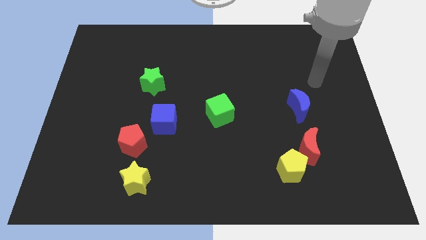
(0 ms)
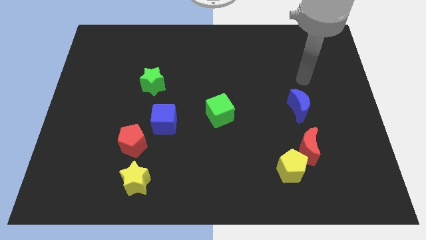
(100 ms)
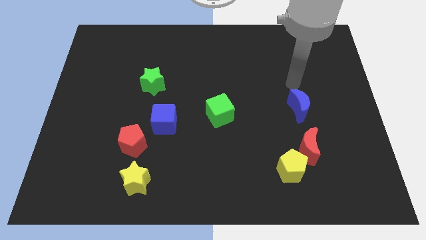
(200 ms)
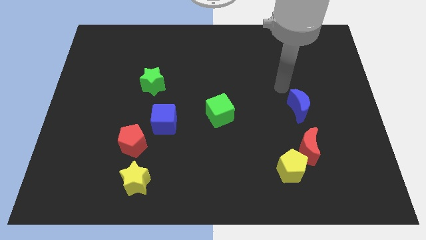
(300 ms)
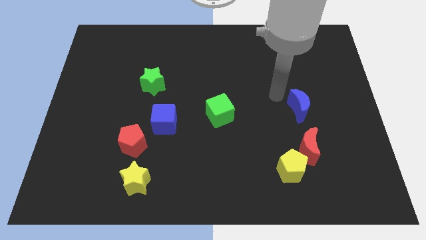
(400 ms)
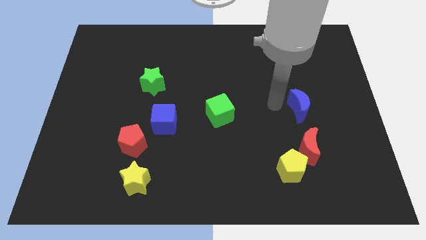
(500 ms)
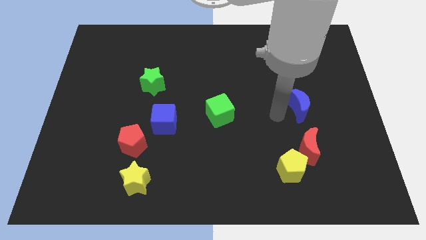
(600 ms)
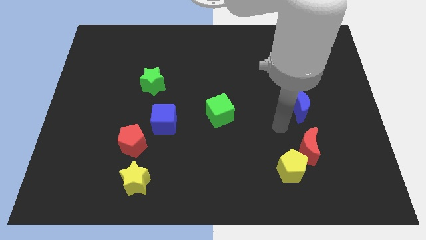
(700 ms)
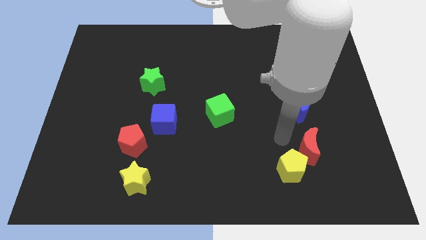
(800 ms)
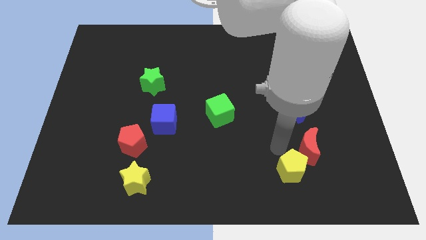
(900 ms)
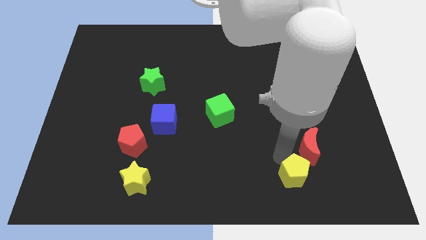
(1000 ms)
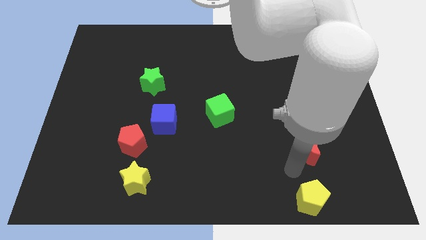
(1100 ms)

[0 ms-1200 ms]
move the red moon away from the yellow pentagon

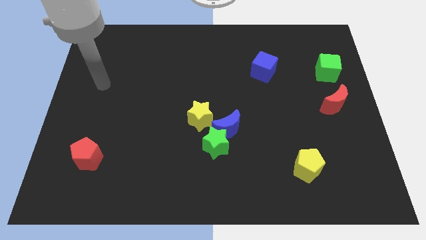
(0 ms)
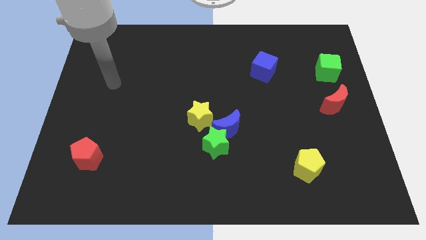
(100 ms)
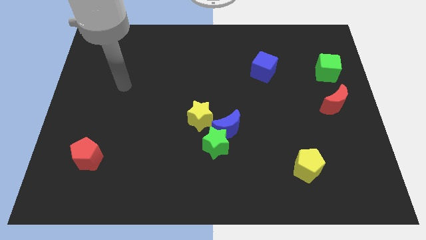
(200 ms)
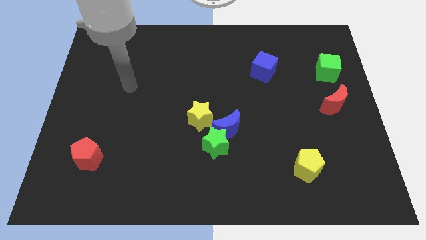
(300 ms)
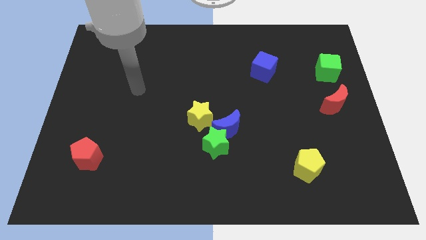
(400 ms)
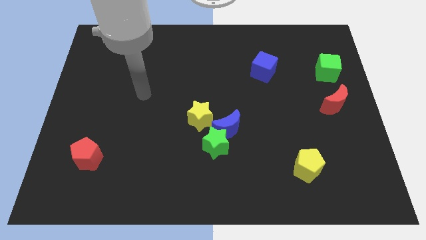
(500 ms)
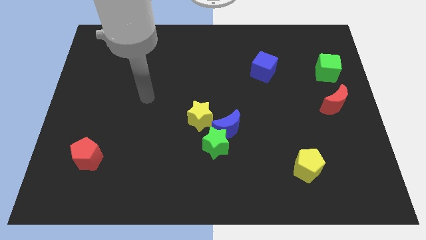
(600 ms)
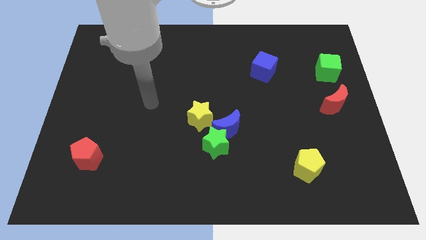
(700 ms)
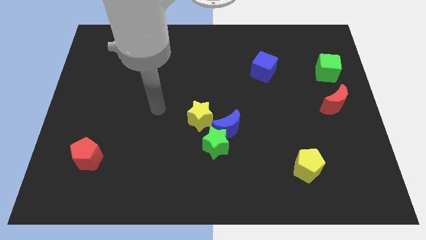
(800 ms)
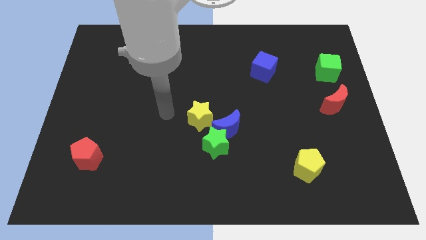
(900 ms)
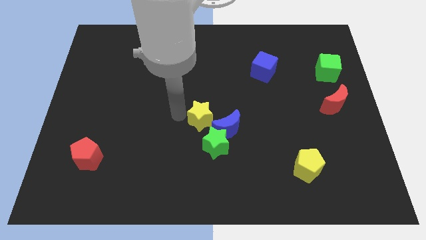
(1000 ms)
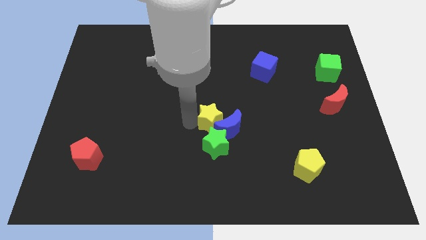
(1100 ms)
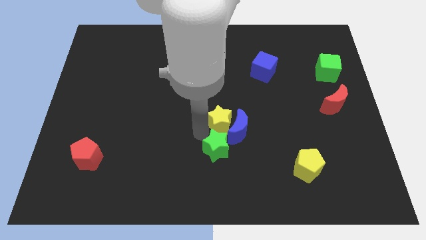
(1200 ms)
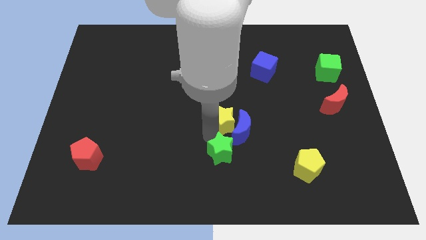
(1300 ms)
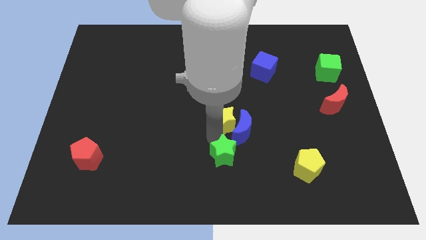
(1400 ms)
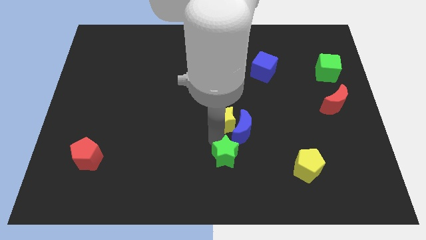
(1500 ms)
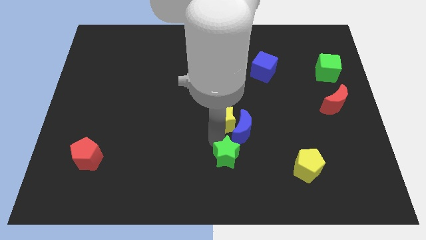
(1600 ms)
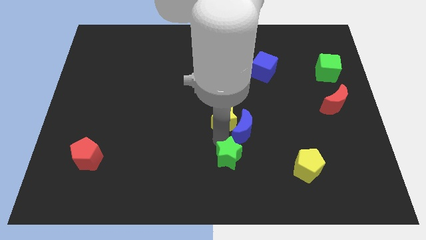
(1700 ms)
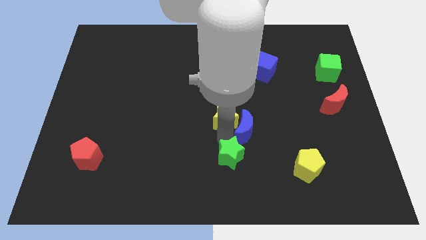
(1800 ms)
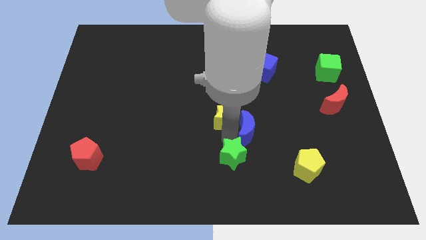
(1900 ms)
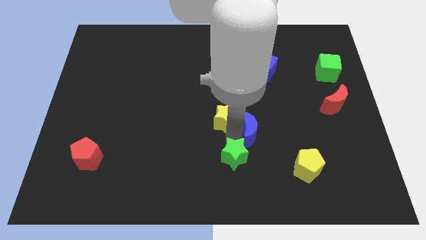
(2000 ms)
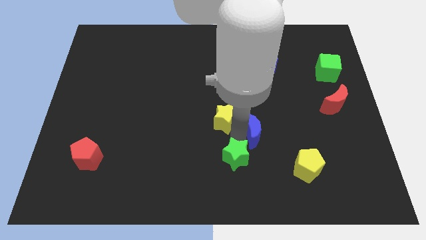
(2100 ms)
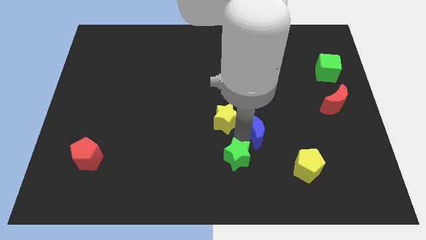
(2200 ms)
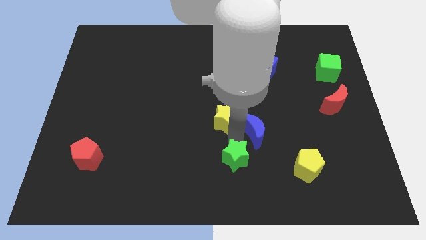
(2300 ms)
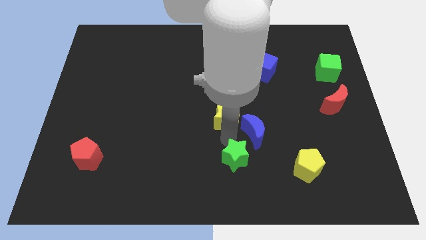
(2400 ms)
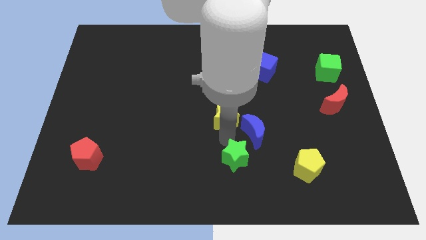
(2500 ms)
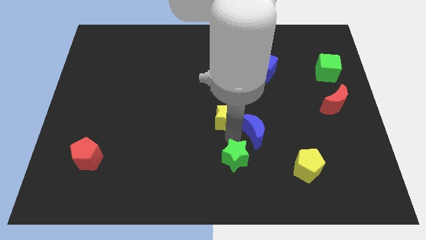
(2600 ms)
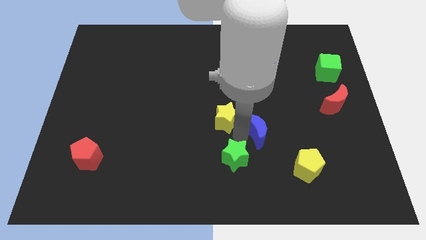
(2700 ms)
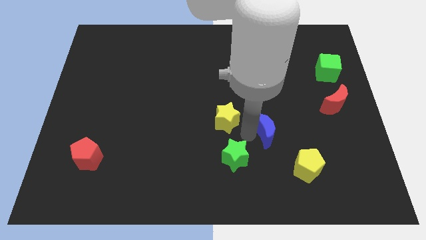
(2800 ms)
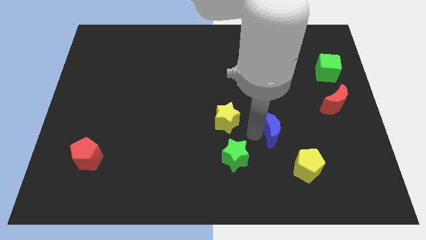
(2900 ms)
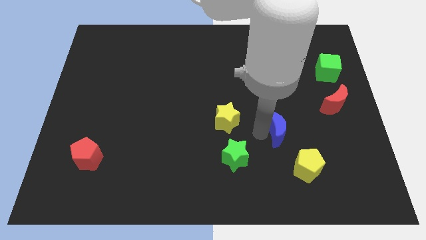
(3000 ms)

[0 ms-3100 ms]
separate the blue moon from the green star and yellow star

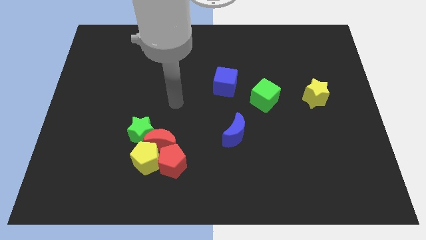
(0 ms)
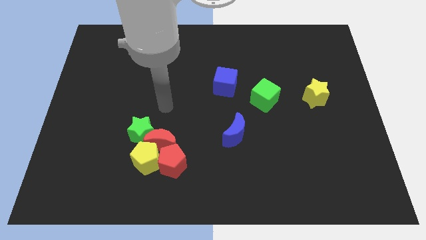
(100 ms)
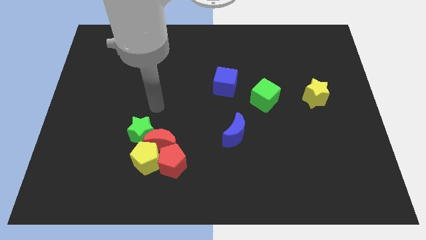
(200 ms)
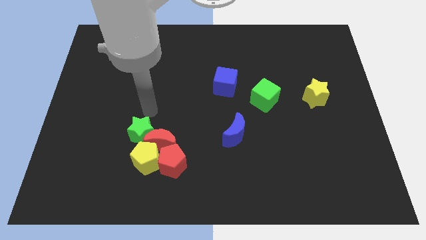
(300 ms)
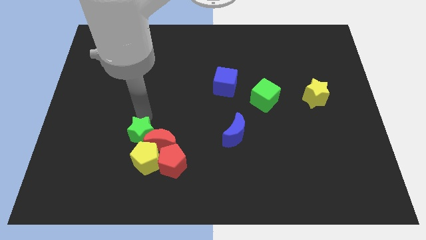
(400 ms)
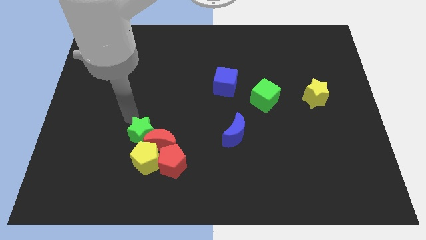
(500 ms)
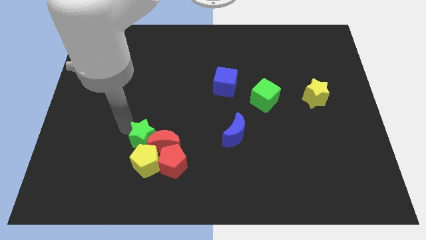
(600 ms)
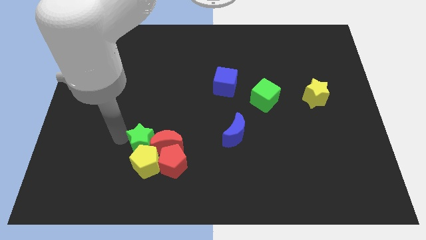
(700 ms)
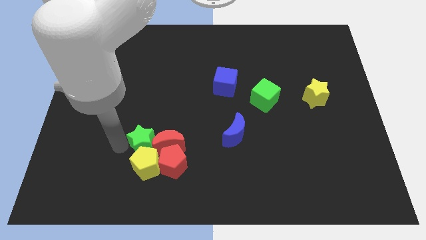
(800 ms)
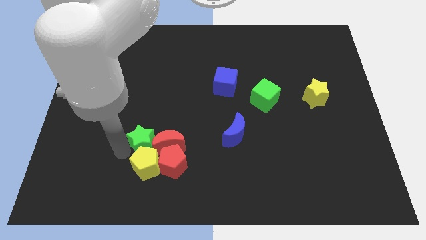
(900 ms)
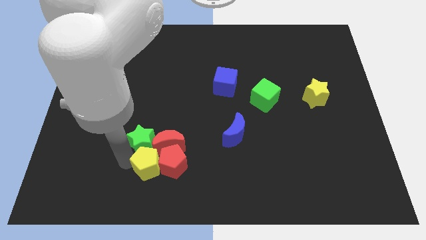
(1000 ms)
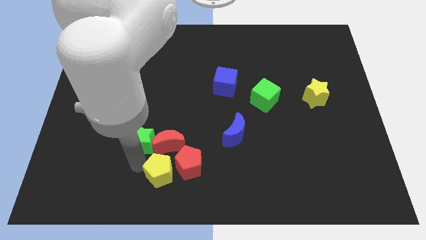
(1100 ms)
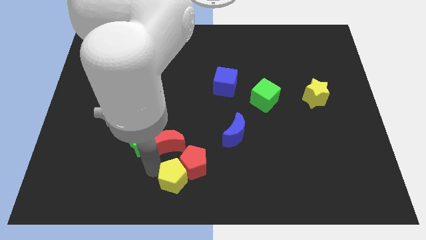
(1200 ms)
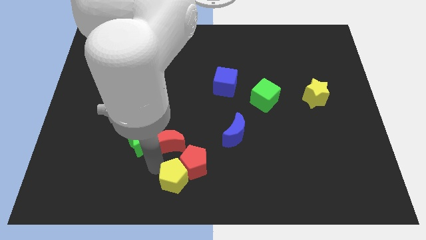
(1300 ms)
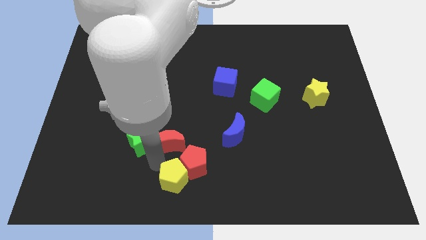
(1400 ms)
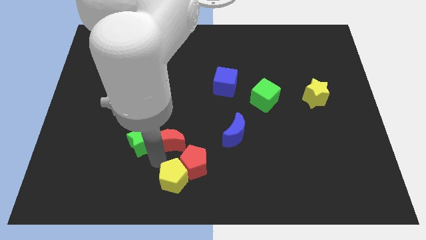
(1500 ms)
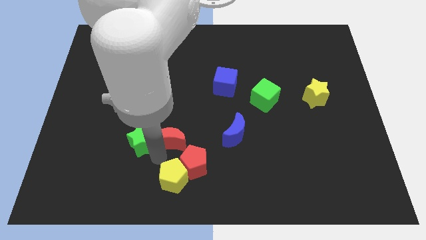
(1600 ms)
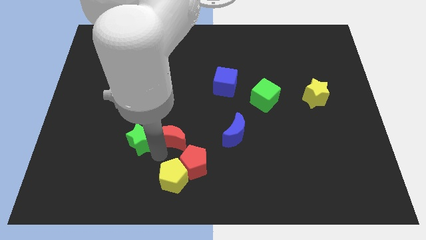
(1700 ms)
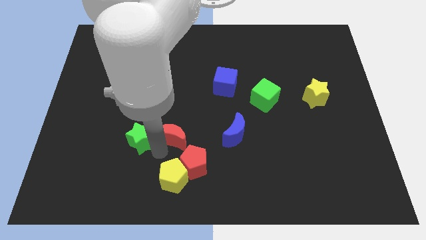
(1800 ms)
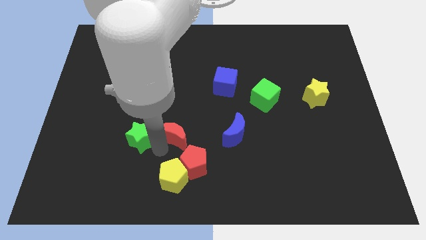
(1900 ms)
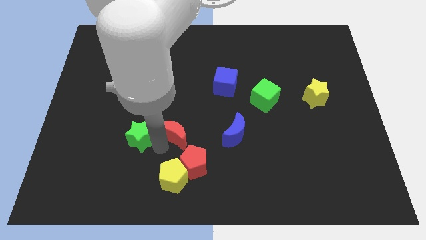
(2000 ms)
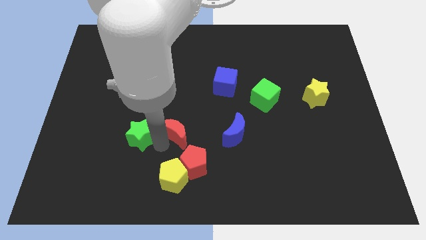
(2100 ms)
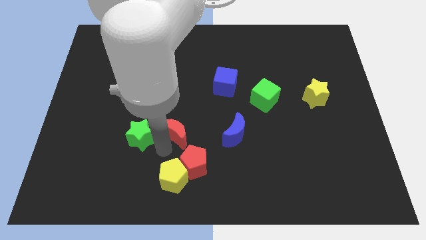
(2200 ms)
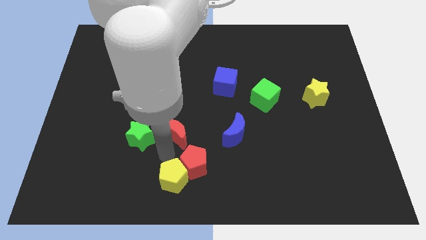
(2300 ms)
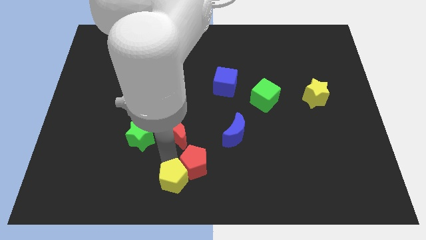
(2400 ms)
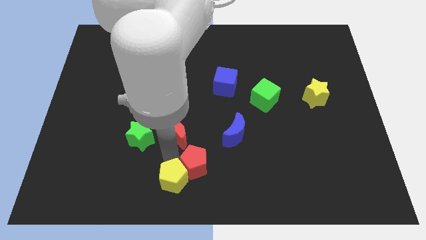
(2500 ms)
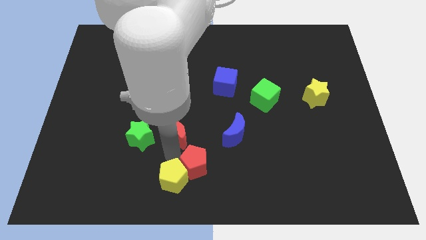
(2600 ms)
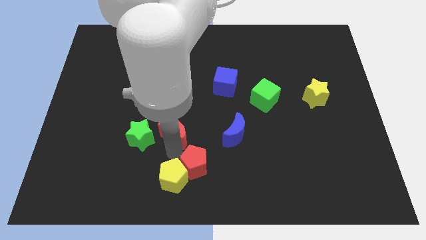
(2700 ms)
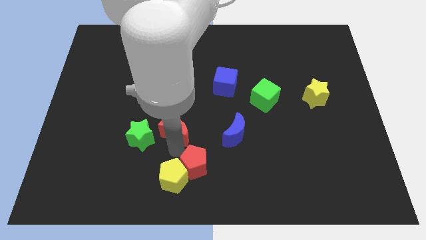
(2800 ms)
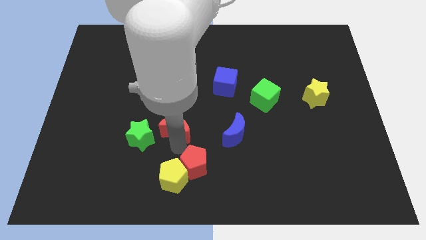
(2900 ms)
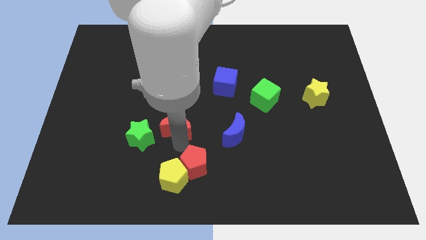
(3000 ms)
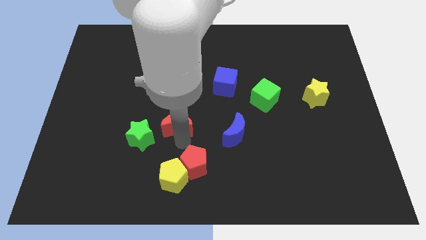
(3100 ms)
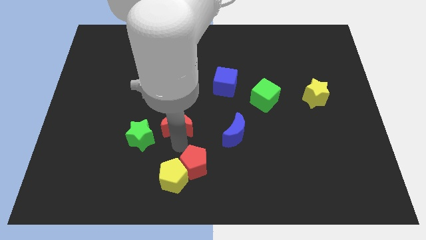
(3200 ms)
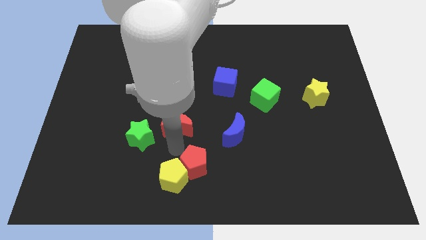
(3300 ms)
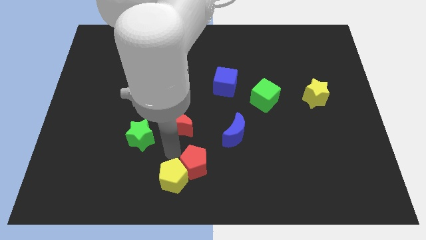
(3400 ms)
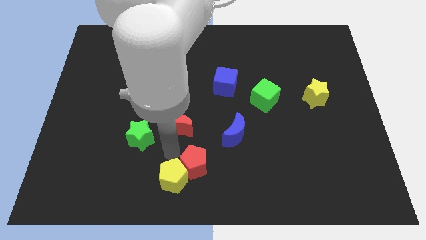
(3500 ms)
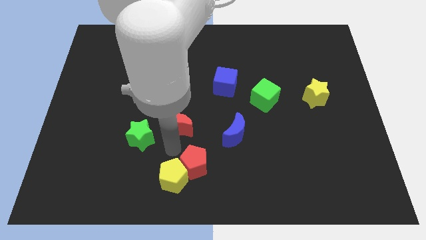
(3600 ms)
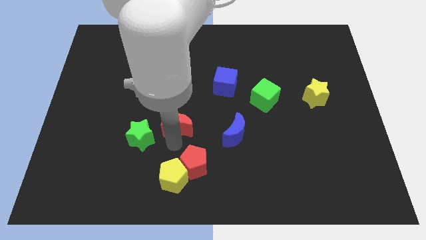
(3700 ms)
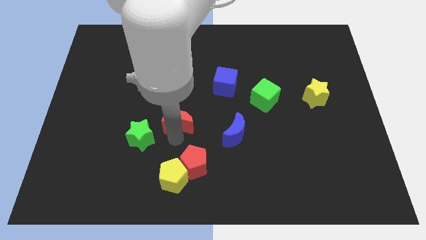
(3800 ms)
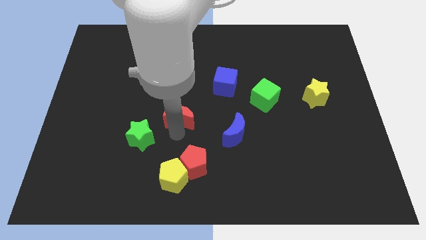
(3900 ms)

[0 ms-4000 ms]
pull the red moon apart from the group

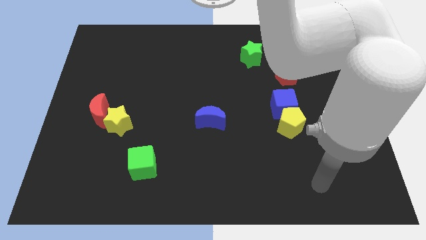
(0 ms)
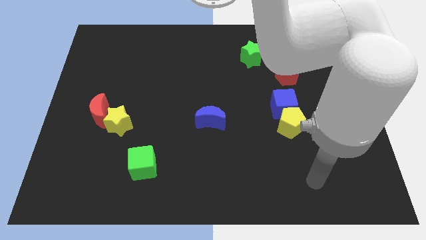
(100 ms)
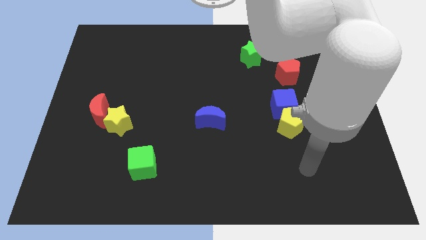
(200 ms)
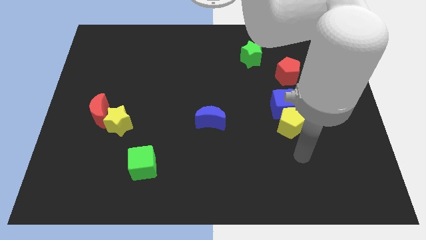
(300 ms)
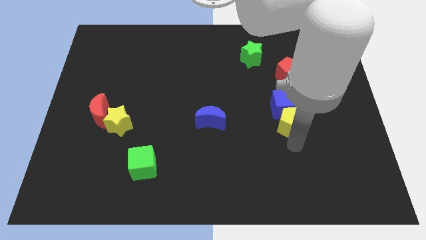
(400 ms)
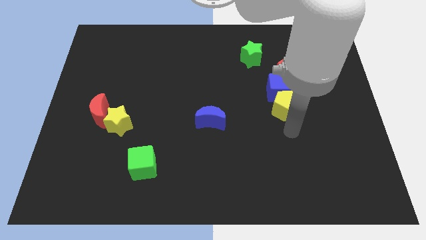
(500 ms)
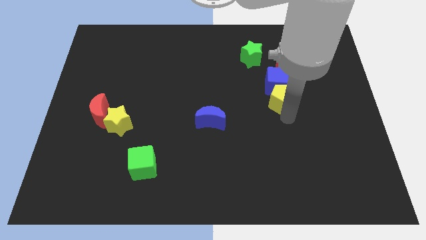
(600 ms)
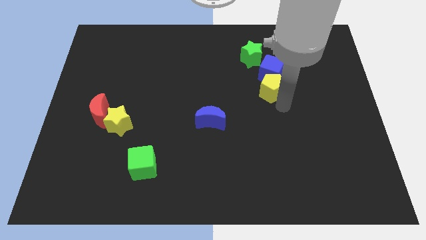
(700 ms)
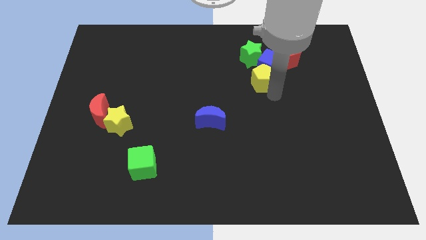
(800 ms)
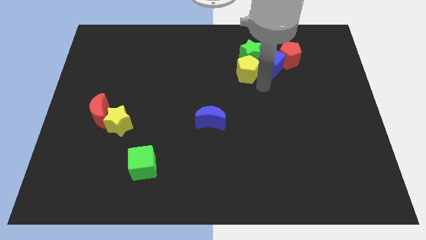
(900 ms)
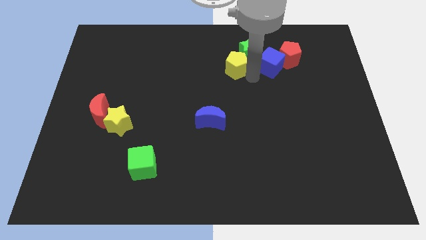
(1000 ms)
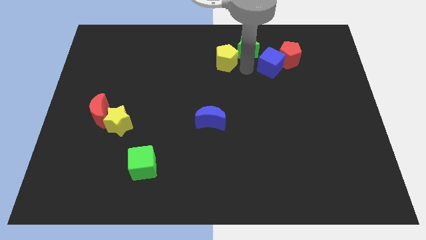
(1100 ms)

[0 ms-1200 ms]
pull the blue cube apart from the yellow pentagon
